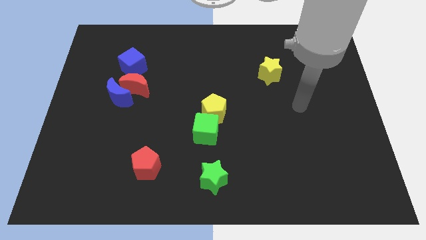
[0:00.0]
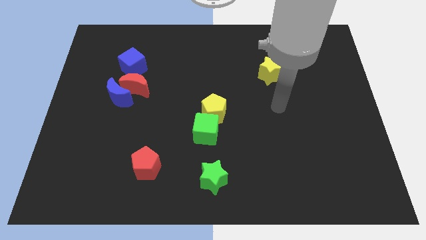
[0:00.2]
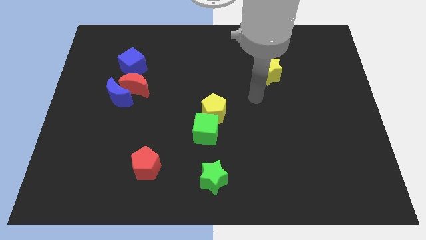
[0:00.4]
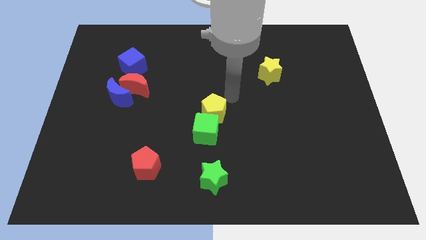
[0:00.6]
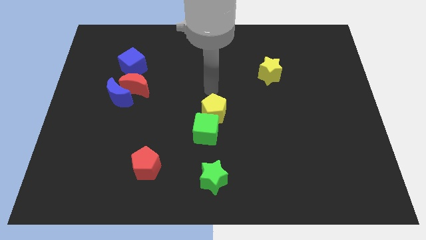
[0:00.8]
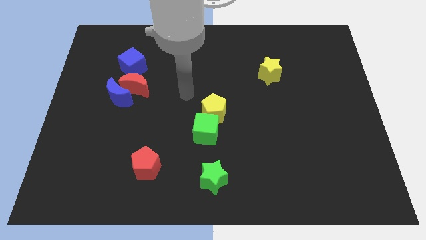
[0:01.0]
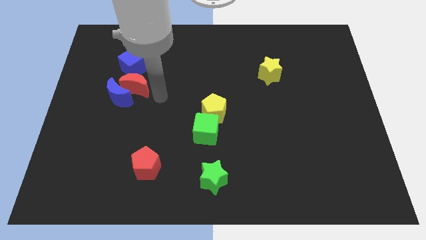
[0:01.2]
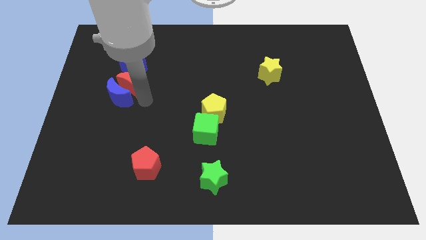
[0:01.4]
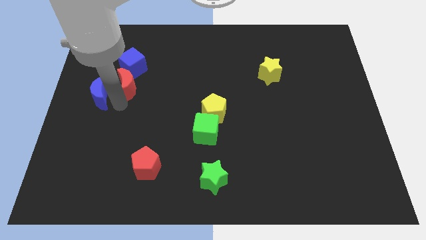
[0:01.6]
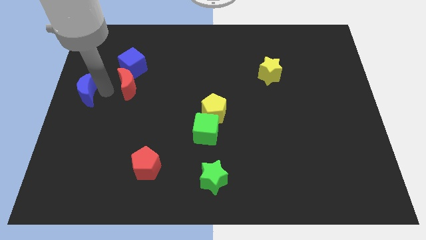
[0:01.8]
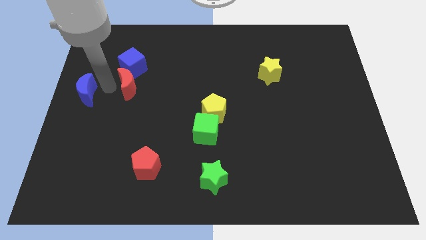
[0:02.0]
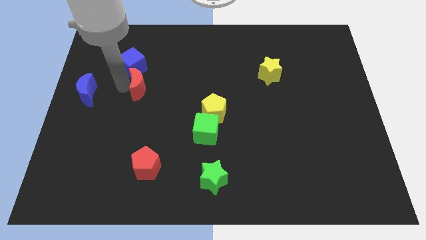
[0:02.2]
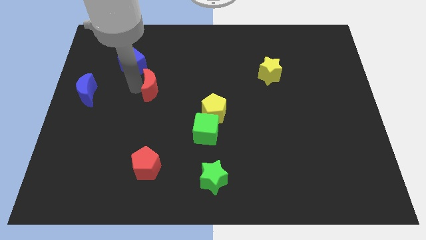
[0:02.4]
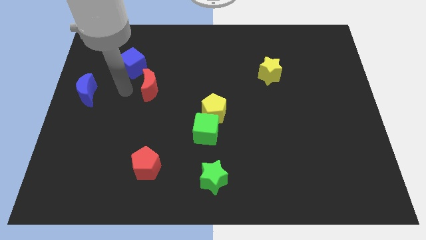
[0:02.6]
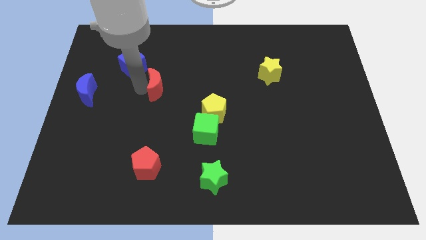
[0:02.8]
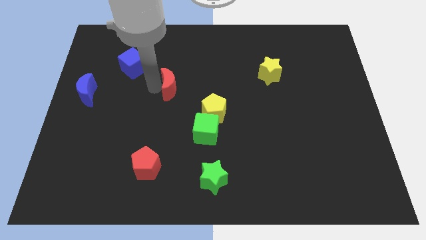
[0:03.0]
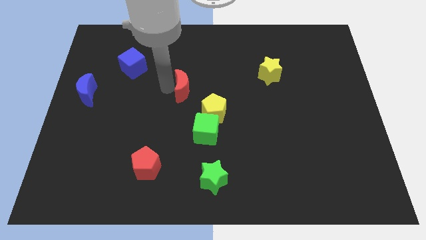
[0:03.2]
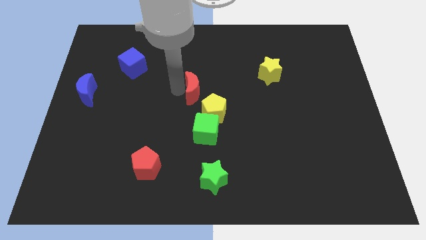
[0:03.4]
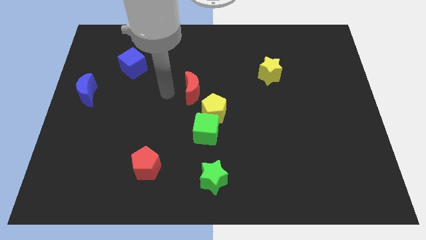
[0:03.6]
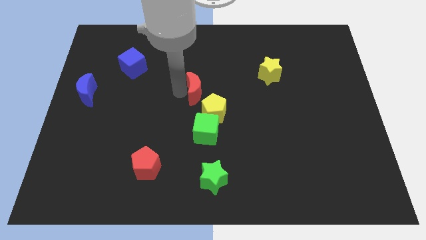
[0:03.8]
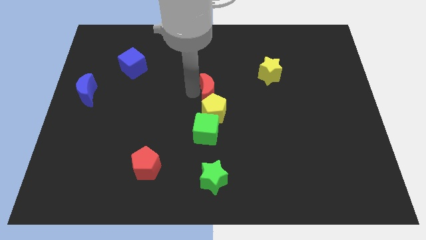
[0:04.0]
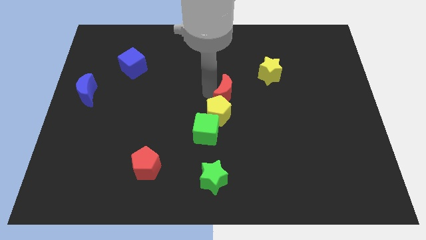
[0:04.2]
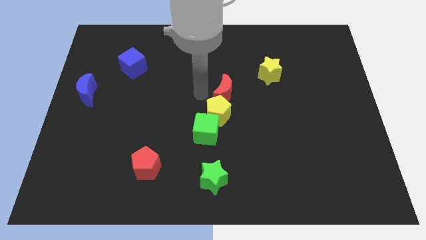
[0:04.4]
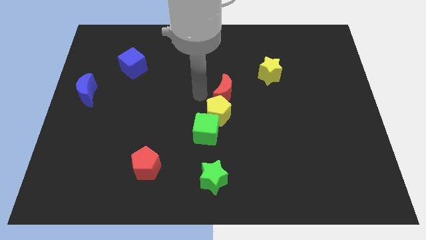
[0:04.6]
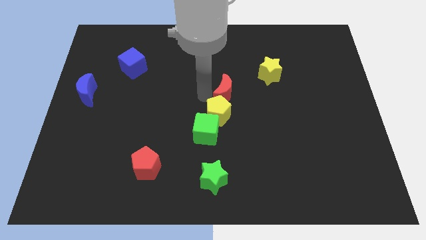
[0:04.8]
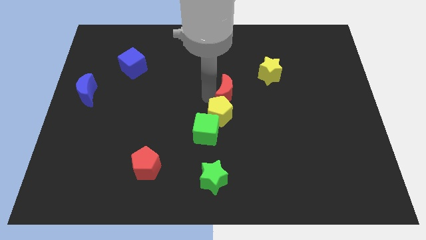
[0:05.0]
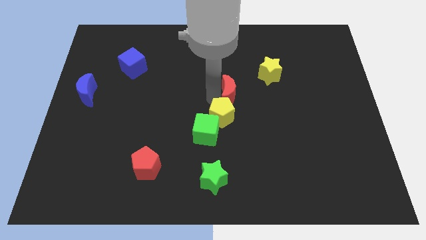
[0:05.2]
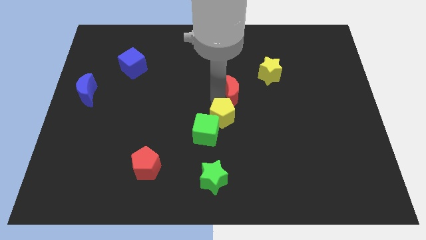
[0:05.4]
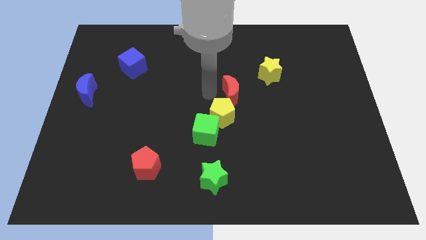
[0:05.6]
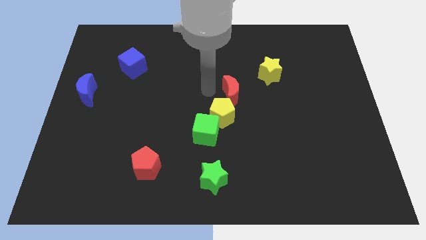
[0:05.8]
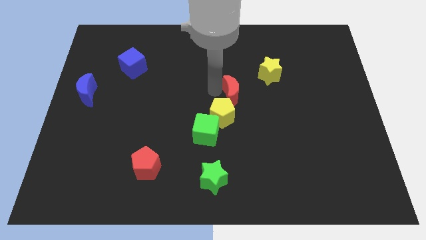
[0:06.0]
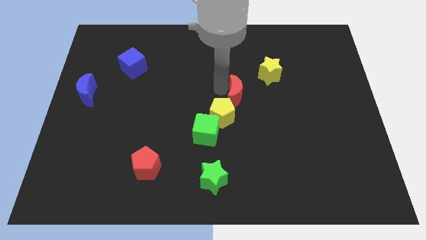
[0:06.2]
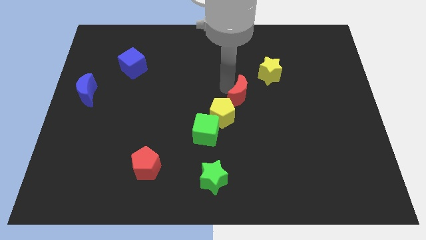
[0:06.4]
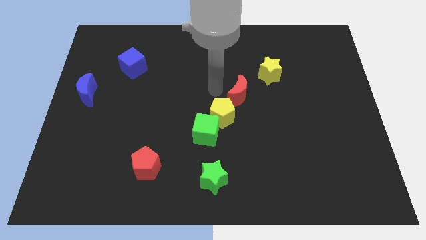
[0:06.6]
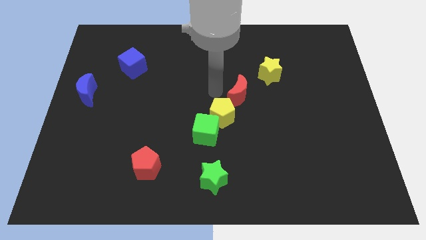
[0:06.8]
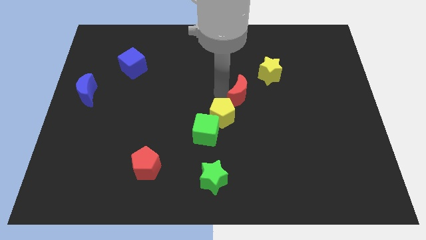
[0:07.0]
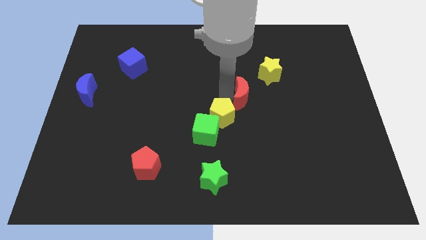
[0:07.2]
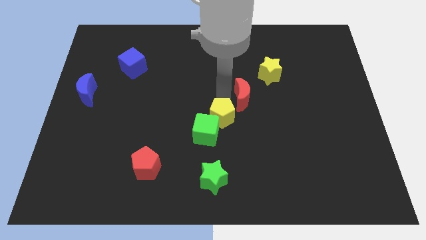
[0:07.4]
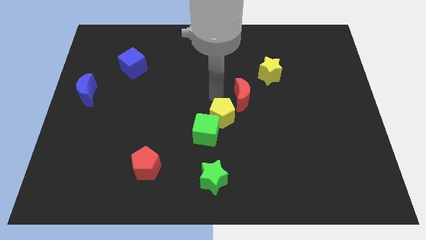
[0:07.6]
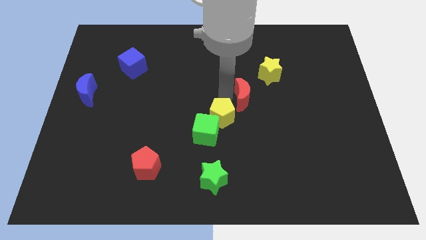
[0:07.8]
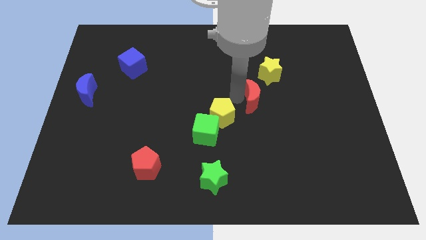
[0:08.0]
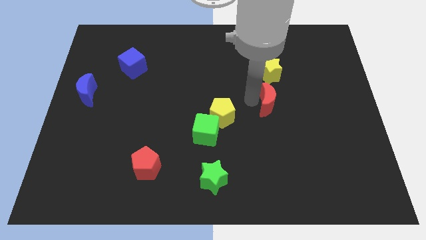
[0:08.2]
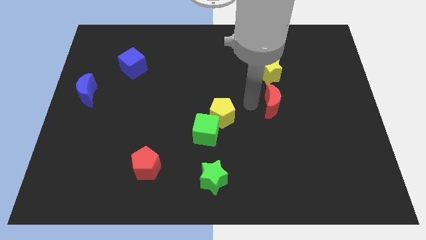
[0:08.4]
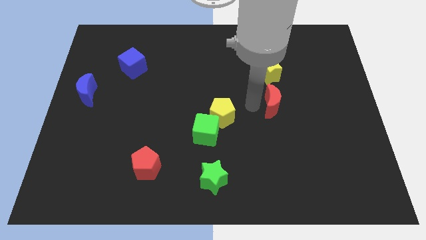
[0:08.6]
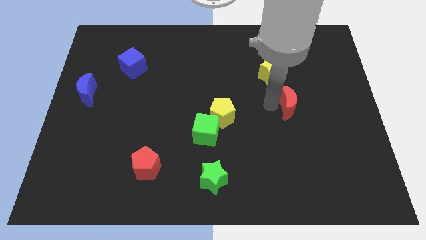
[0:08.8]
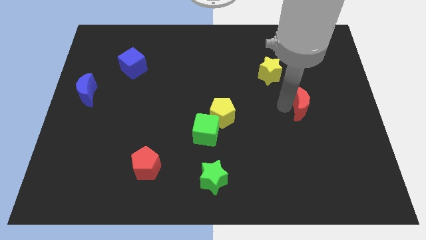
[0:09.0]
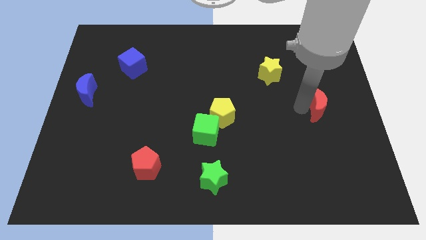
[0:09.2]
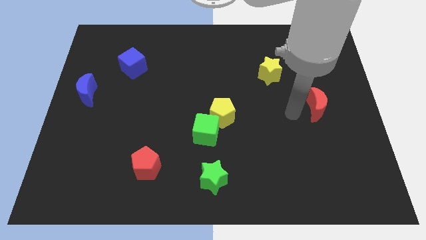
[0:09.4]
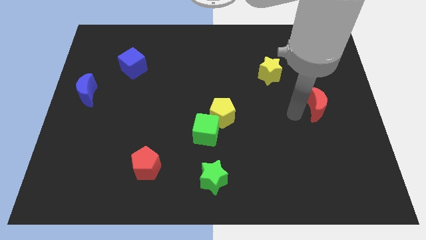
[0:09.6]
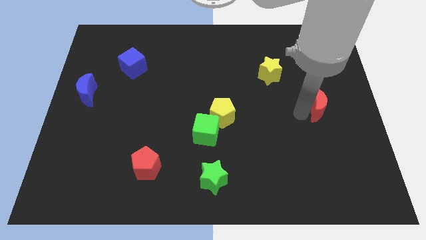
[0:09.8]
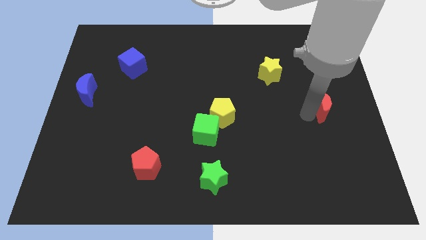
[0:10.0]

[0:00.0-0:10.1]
slide the red moon to the center right

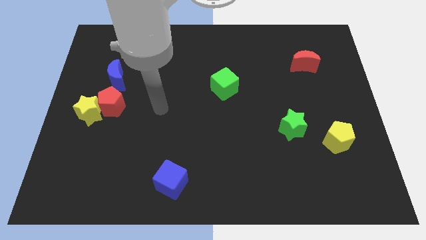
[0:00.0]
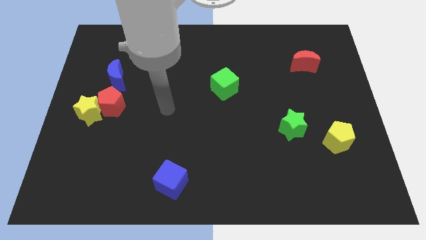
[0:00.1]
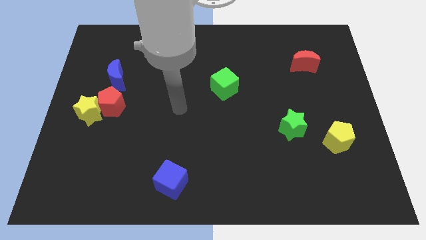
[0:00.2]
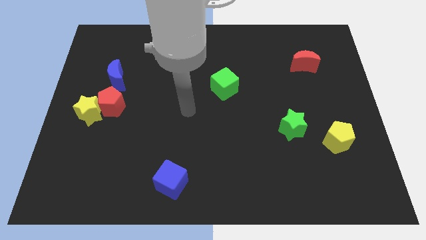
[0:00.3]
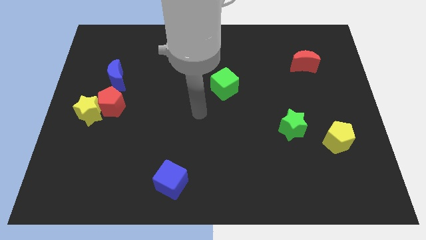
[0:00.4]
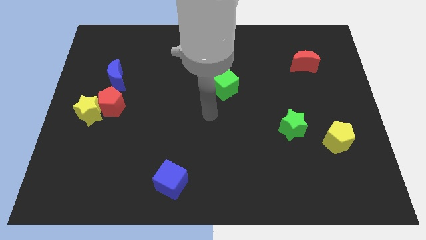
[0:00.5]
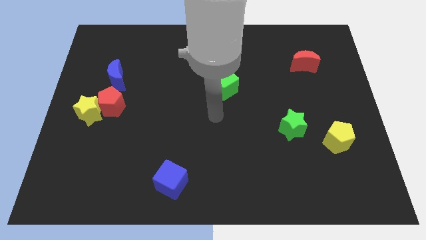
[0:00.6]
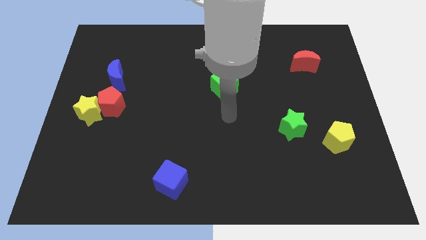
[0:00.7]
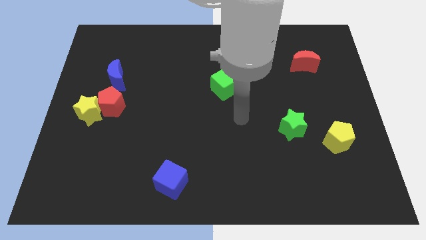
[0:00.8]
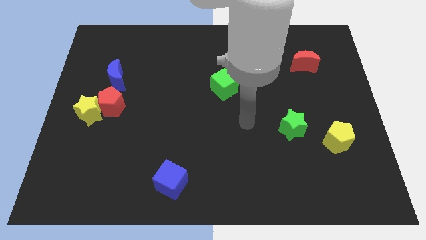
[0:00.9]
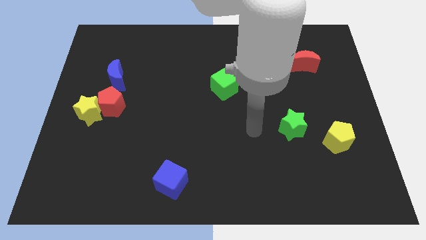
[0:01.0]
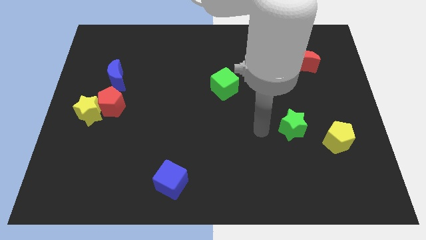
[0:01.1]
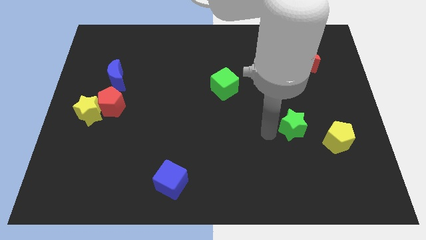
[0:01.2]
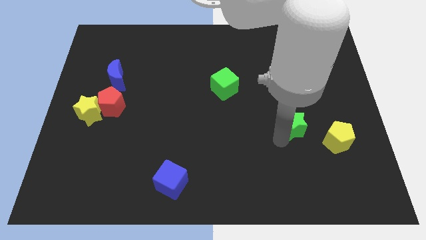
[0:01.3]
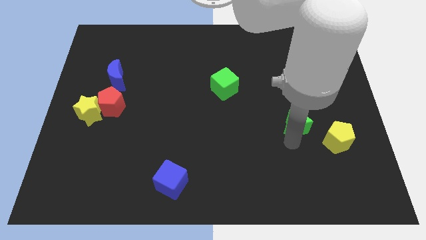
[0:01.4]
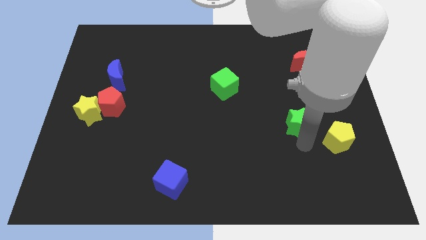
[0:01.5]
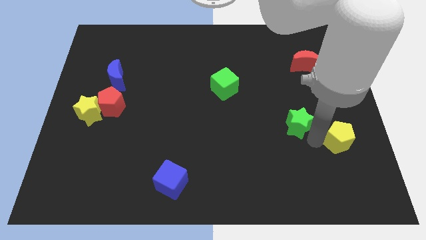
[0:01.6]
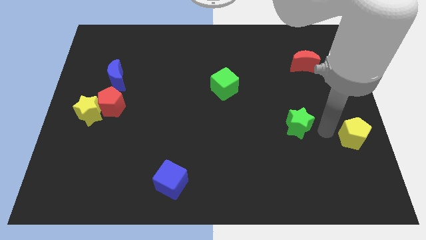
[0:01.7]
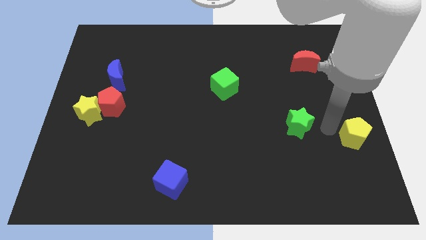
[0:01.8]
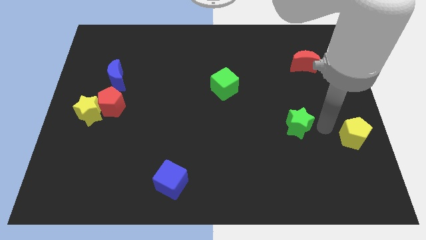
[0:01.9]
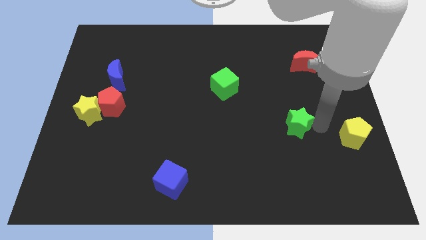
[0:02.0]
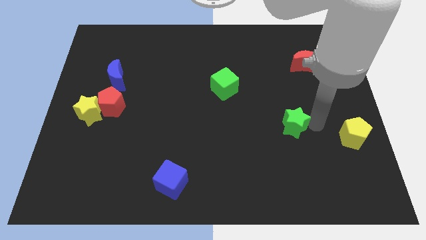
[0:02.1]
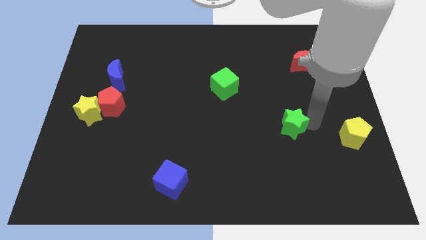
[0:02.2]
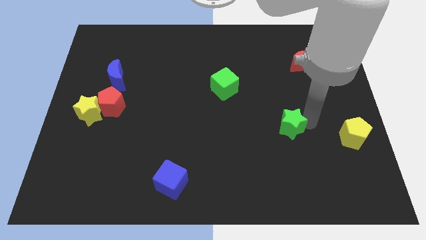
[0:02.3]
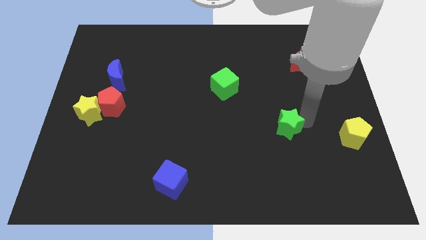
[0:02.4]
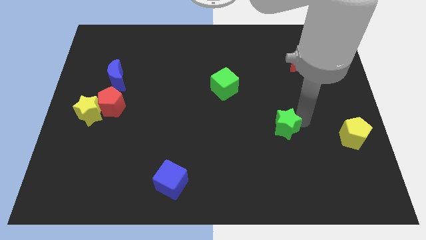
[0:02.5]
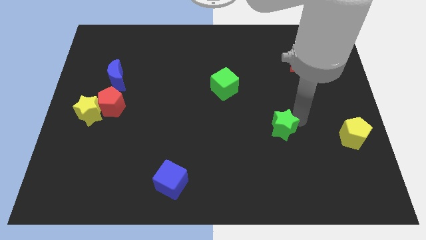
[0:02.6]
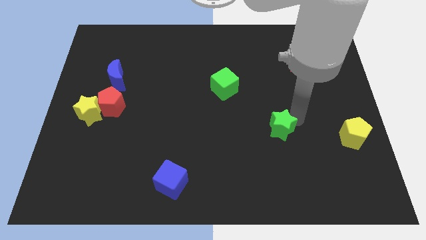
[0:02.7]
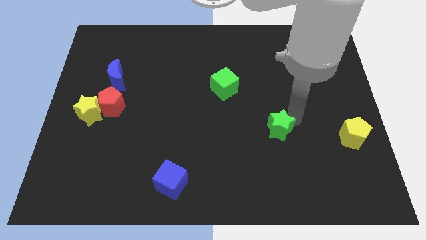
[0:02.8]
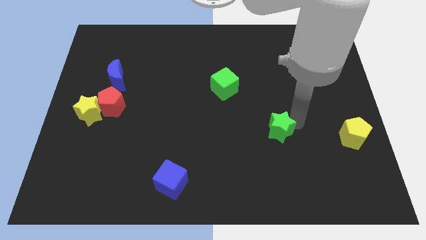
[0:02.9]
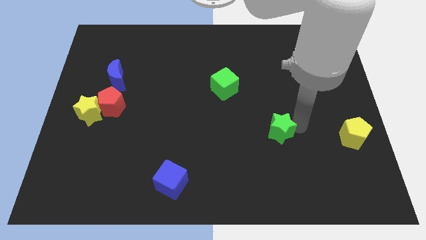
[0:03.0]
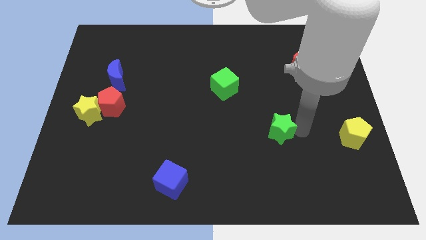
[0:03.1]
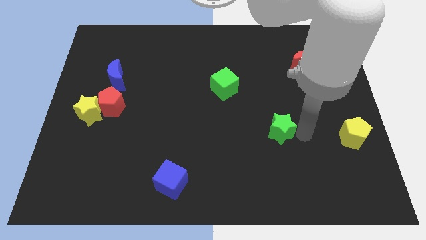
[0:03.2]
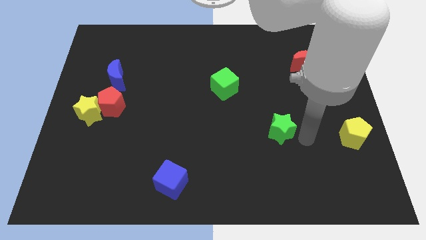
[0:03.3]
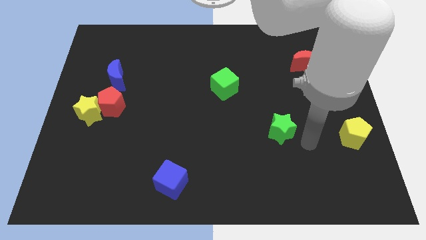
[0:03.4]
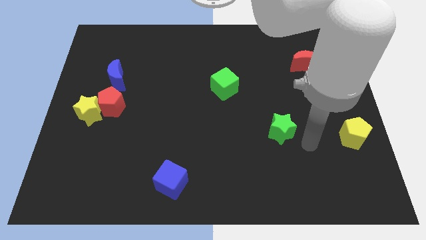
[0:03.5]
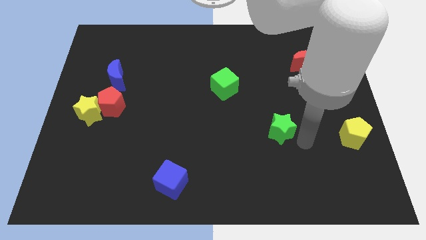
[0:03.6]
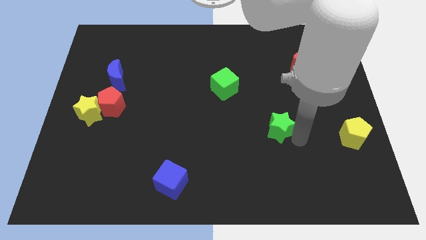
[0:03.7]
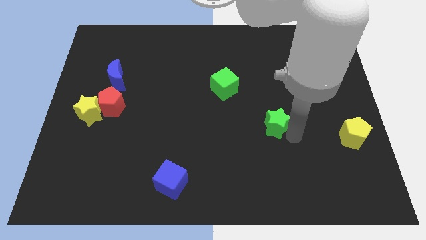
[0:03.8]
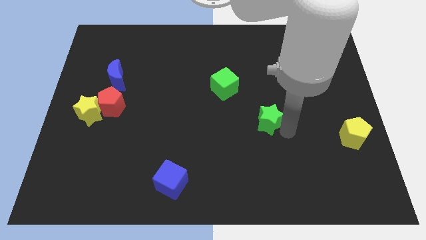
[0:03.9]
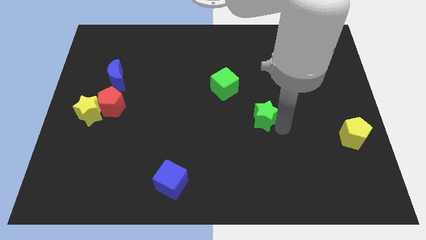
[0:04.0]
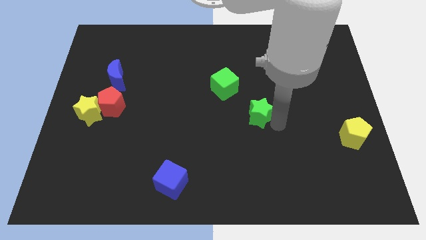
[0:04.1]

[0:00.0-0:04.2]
move the green star to the center of the board
